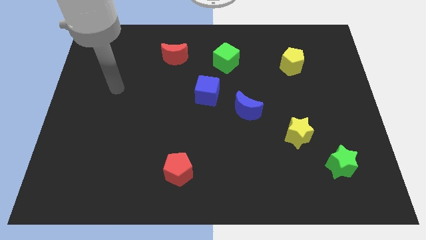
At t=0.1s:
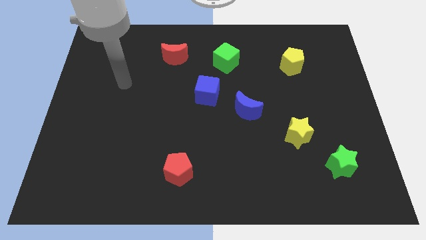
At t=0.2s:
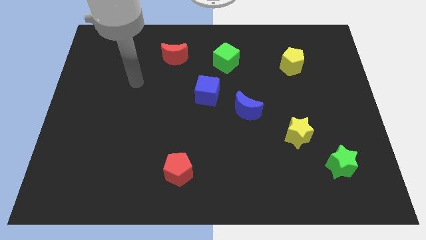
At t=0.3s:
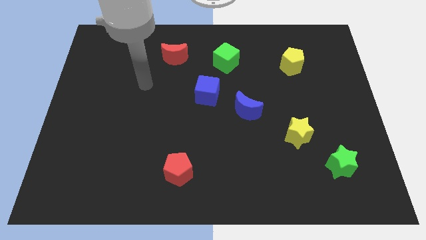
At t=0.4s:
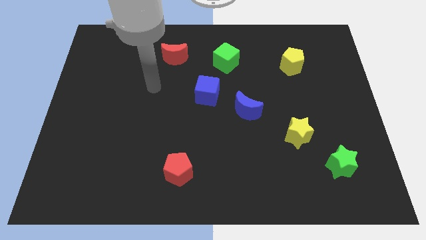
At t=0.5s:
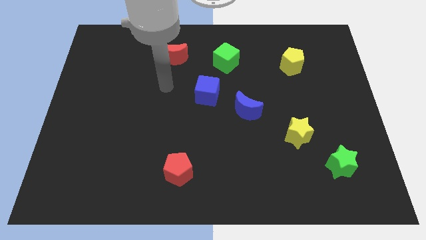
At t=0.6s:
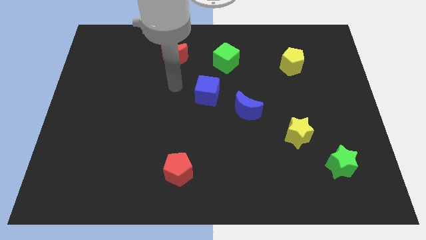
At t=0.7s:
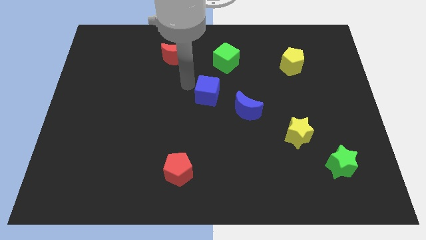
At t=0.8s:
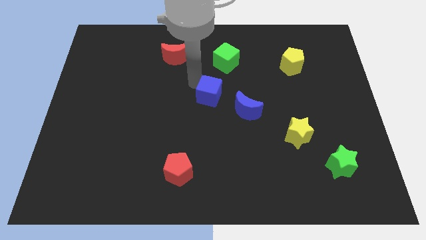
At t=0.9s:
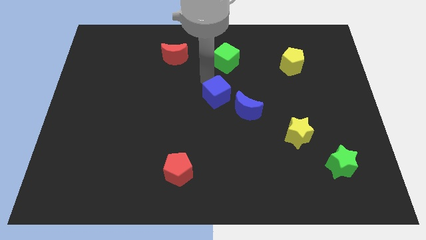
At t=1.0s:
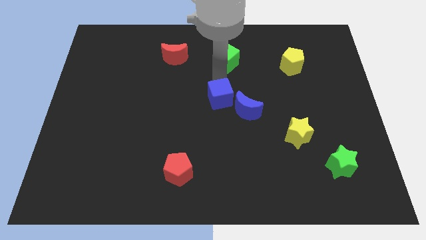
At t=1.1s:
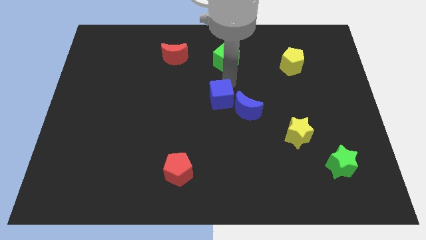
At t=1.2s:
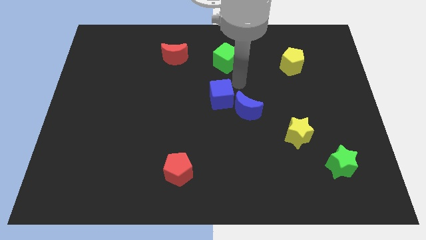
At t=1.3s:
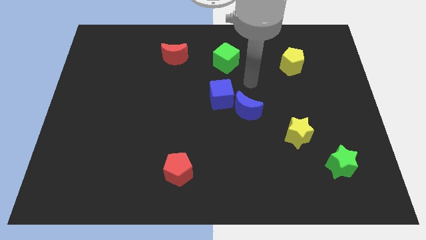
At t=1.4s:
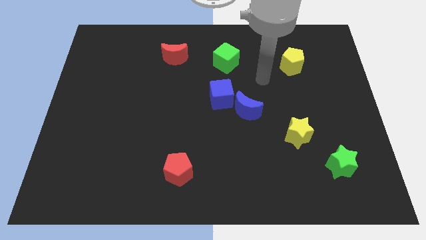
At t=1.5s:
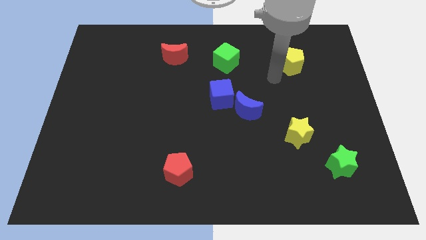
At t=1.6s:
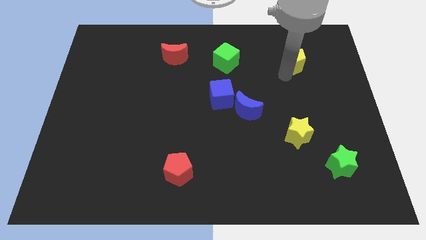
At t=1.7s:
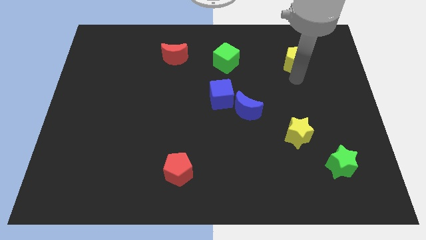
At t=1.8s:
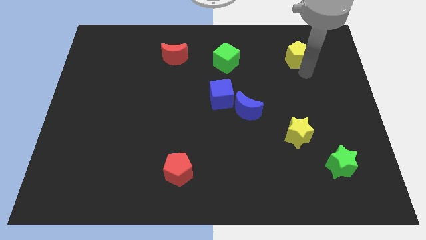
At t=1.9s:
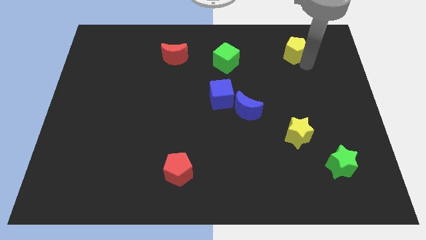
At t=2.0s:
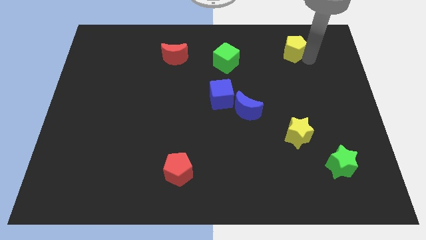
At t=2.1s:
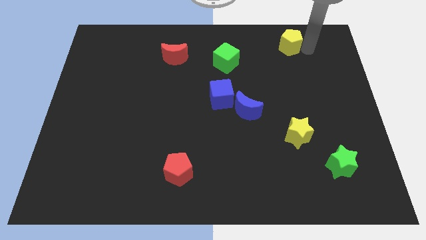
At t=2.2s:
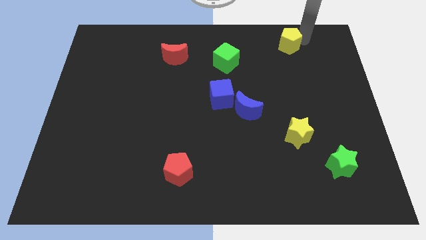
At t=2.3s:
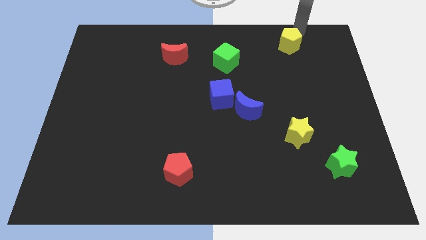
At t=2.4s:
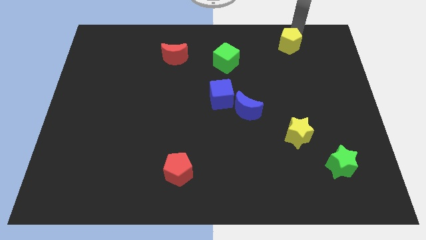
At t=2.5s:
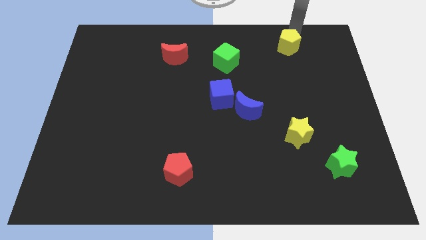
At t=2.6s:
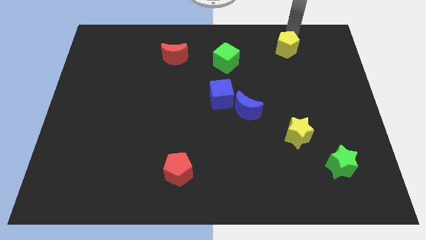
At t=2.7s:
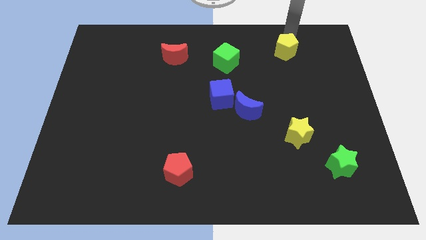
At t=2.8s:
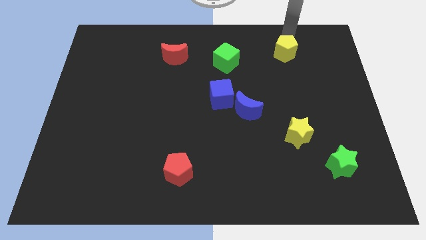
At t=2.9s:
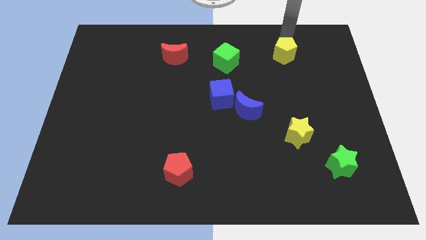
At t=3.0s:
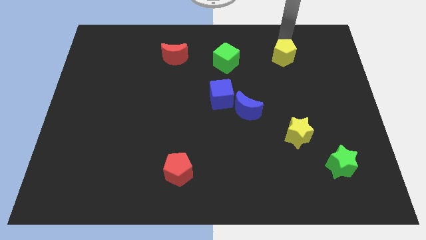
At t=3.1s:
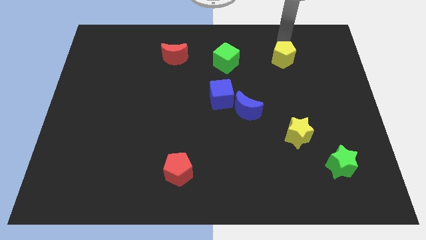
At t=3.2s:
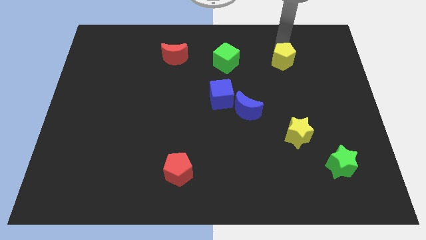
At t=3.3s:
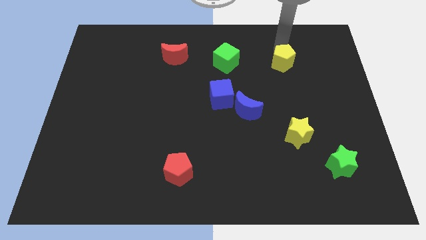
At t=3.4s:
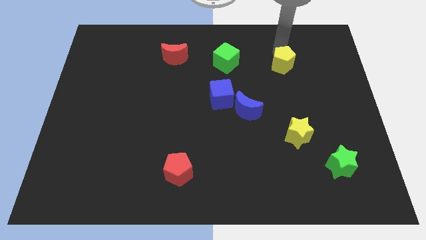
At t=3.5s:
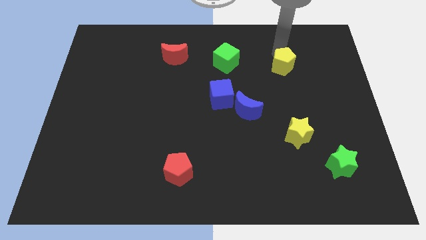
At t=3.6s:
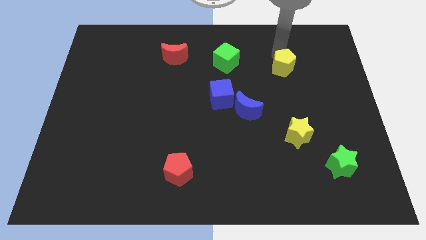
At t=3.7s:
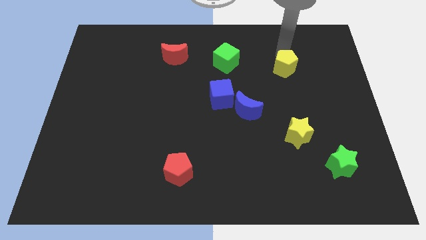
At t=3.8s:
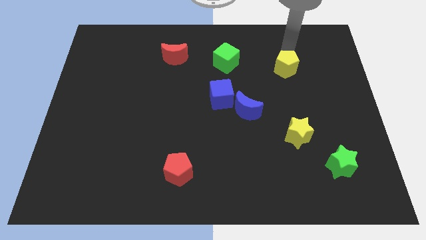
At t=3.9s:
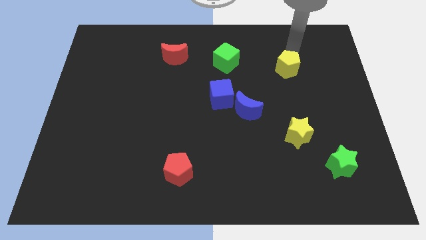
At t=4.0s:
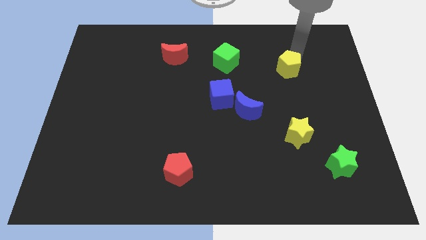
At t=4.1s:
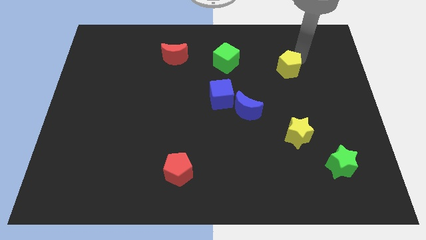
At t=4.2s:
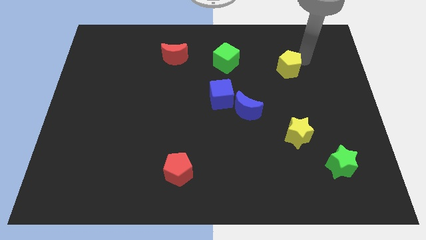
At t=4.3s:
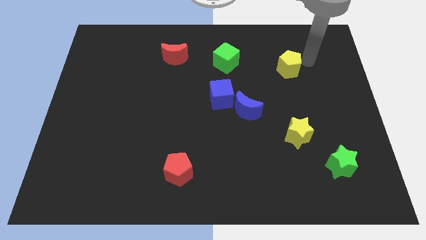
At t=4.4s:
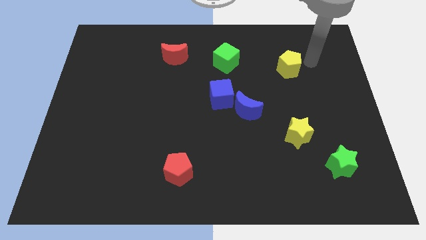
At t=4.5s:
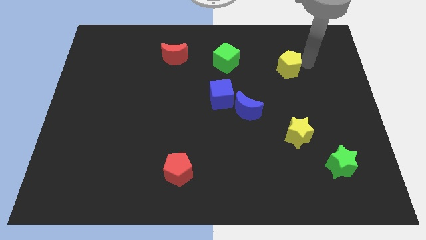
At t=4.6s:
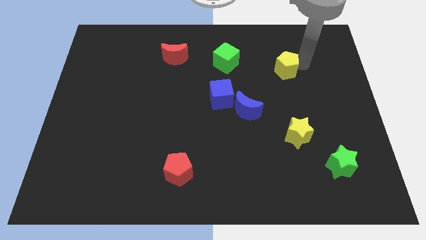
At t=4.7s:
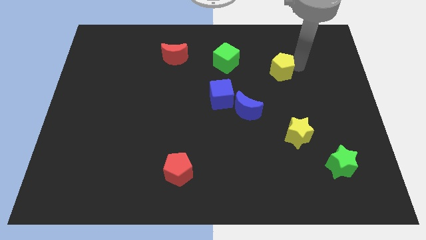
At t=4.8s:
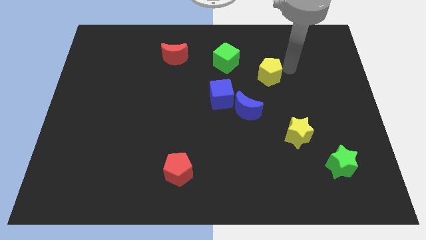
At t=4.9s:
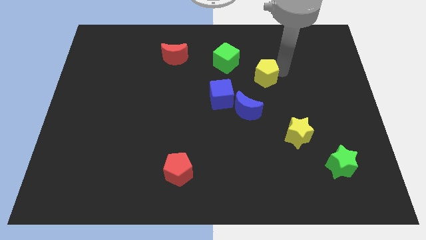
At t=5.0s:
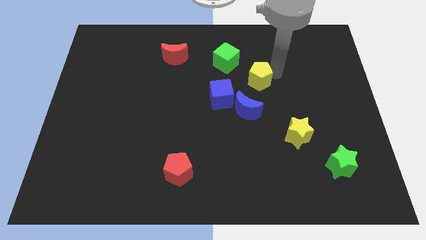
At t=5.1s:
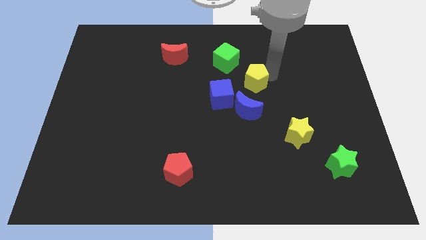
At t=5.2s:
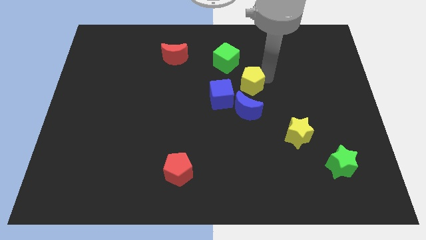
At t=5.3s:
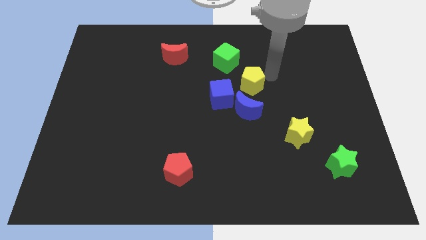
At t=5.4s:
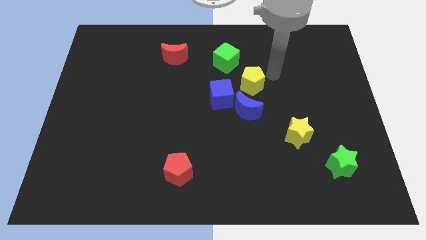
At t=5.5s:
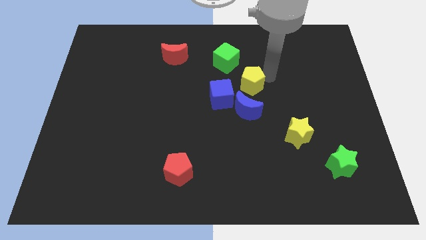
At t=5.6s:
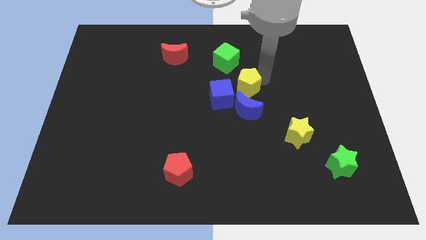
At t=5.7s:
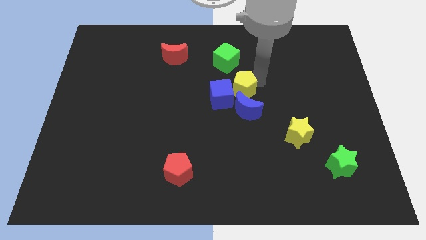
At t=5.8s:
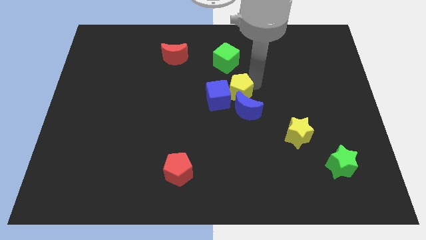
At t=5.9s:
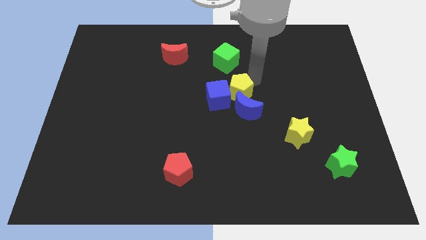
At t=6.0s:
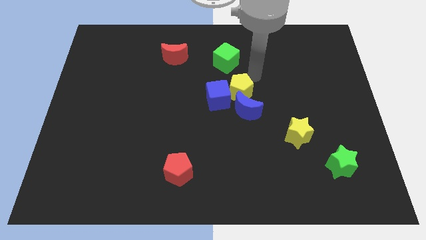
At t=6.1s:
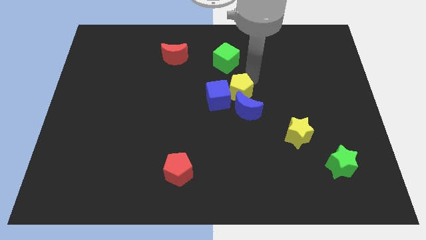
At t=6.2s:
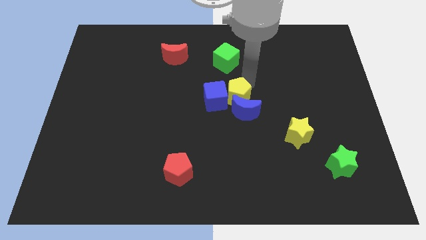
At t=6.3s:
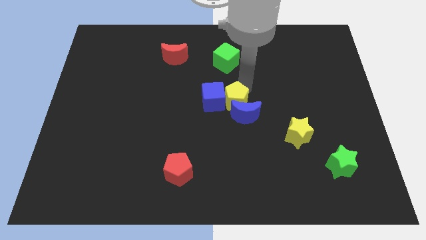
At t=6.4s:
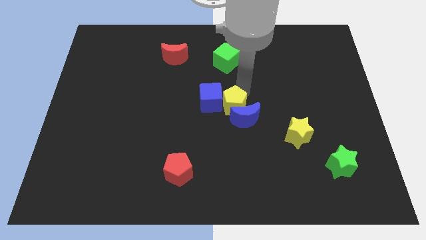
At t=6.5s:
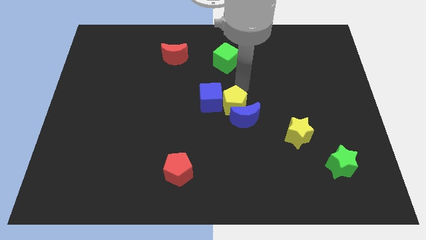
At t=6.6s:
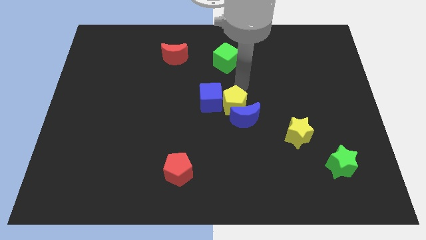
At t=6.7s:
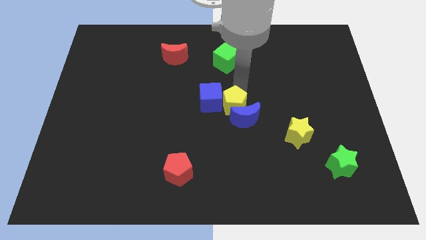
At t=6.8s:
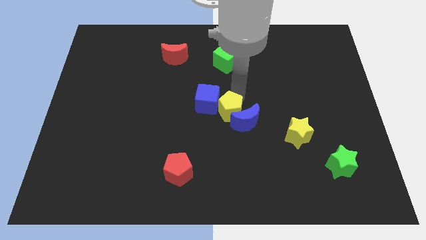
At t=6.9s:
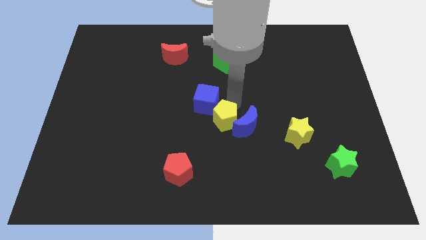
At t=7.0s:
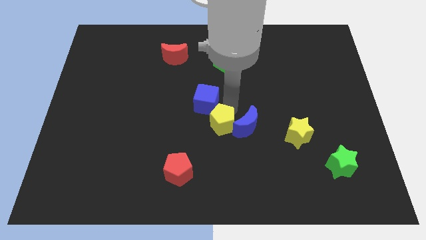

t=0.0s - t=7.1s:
push the yellow pentagon diagonally down and to the left of the blue moon
